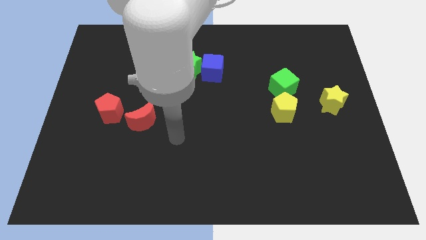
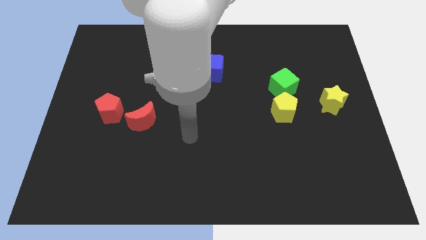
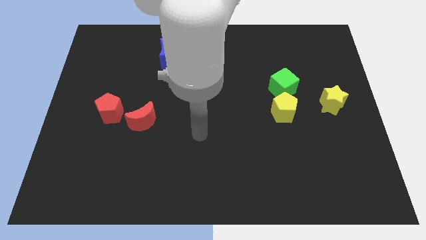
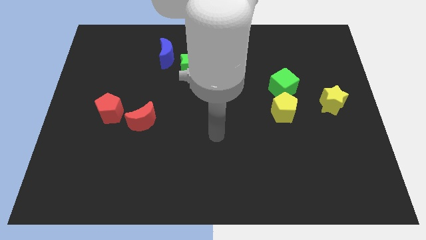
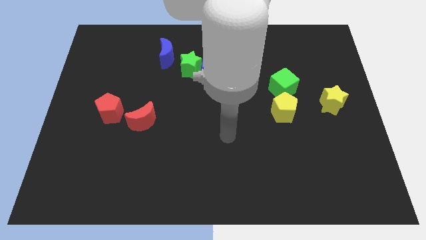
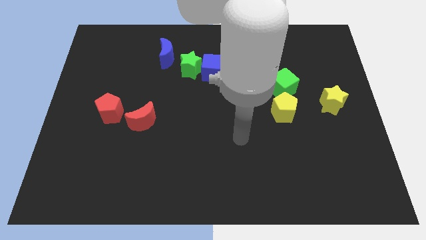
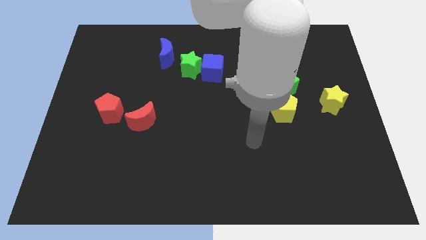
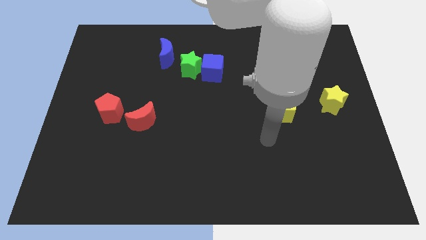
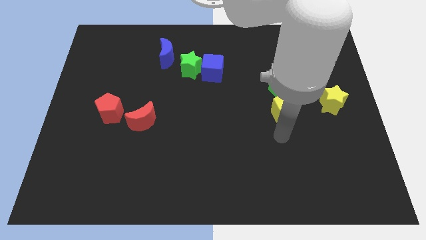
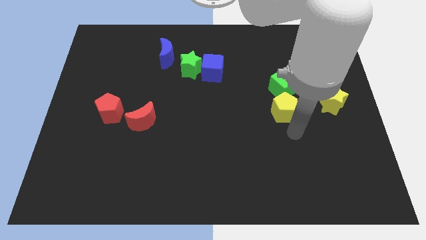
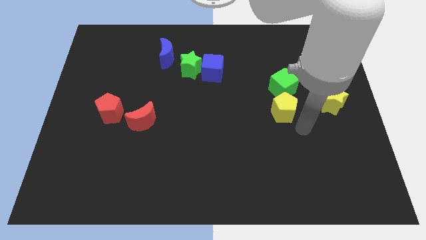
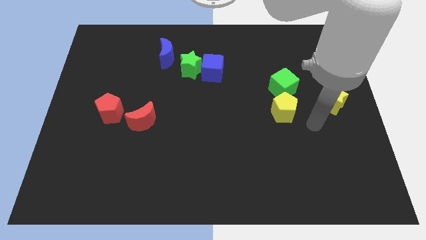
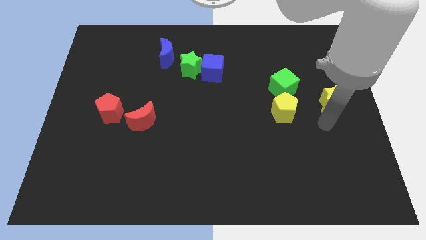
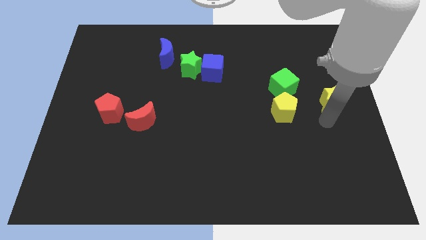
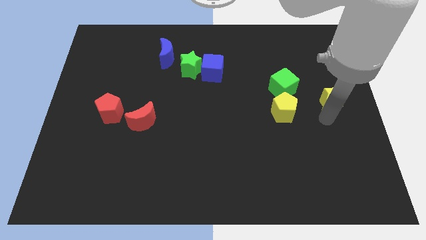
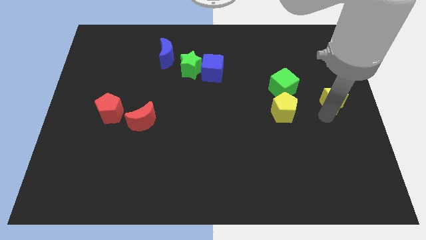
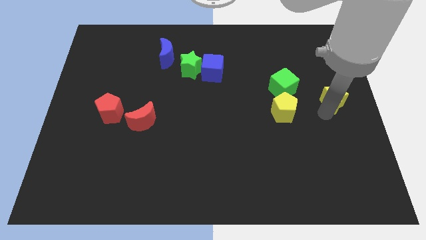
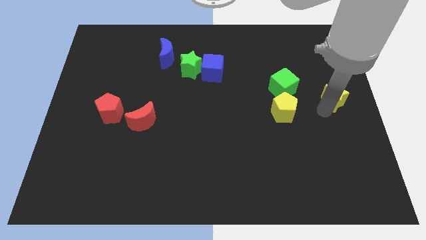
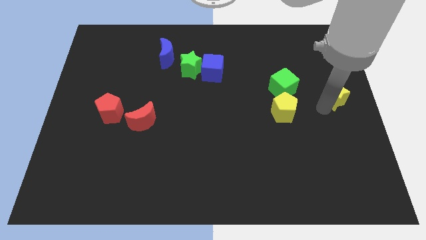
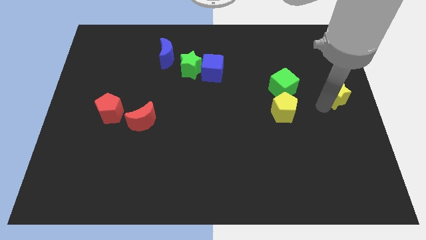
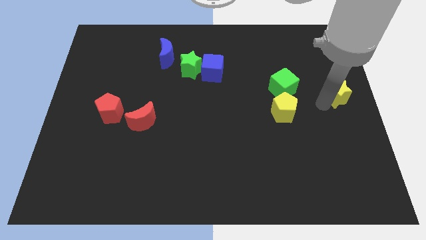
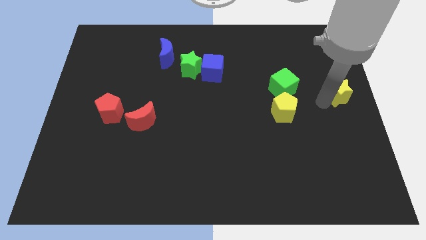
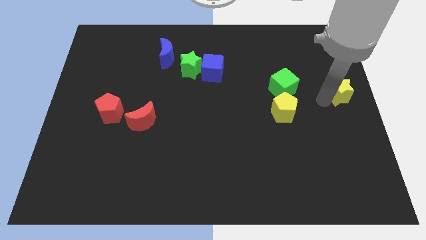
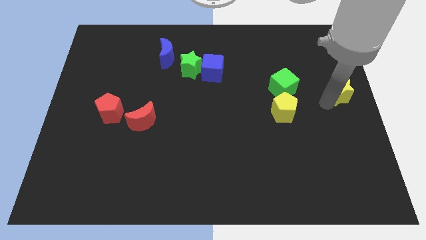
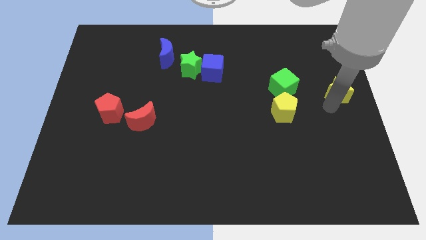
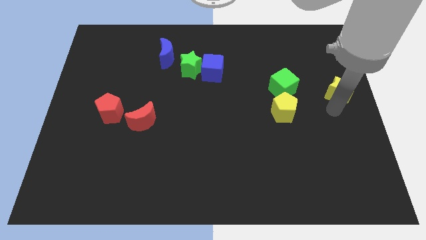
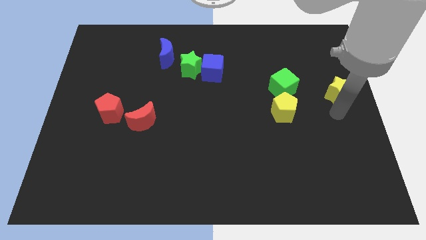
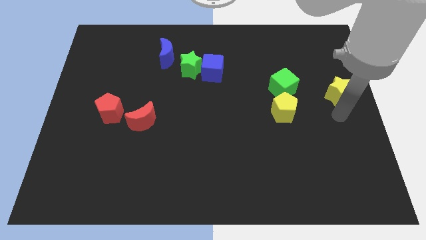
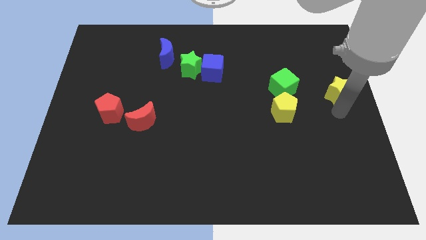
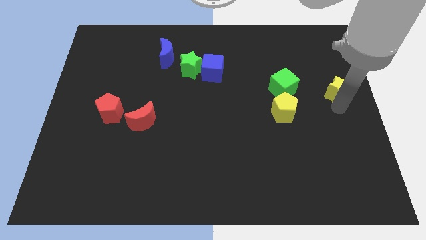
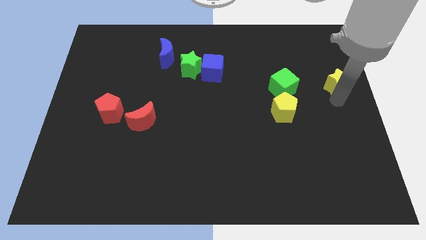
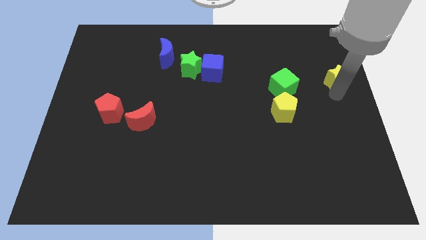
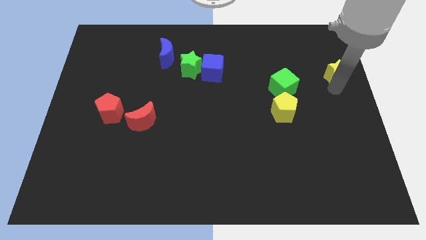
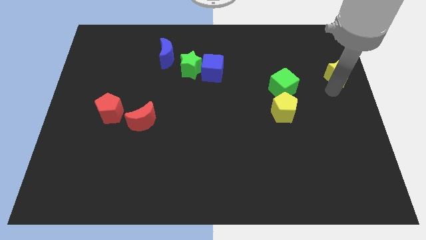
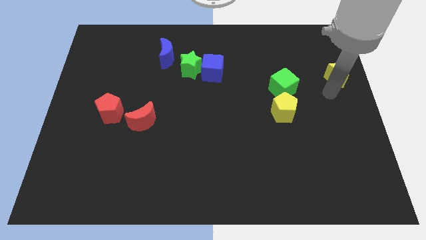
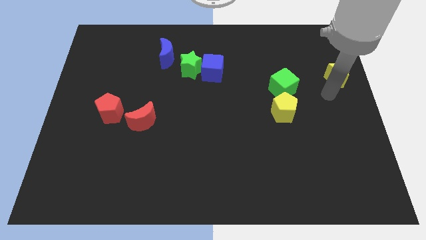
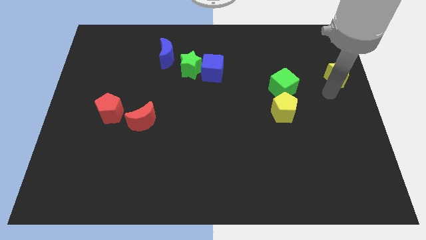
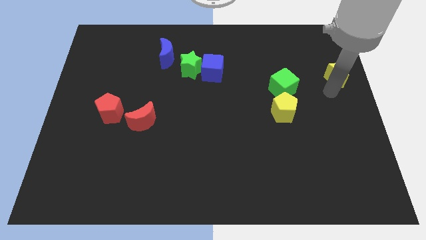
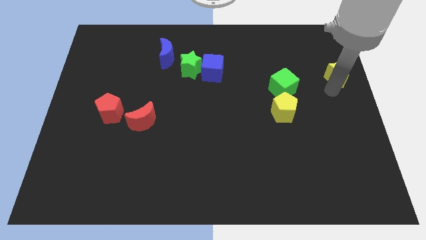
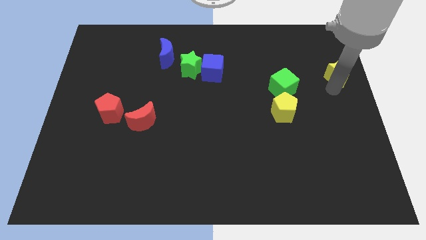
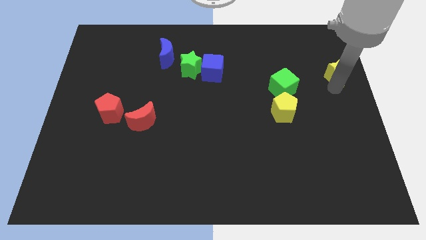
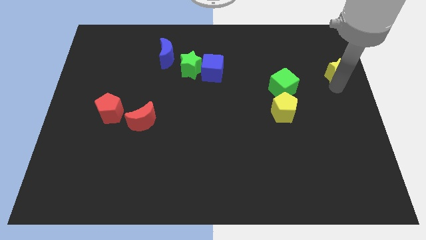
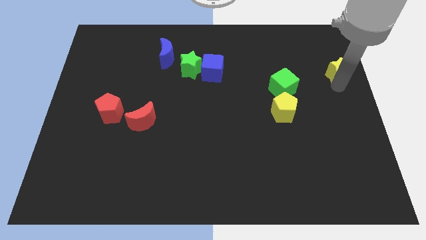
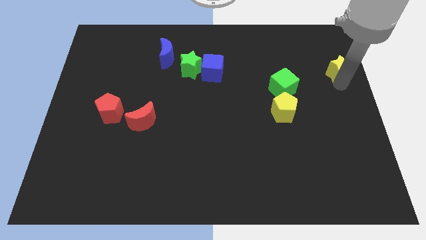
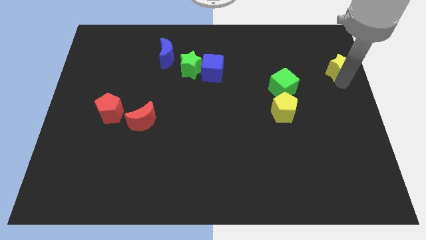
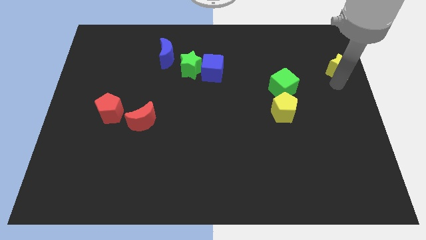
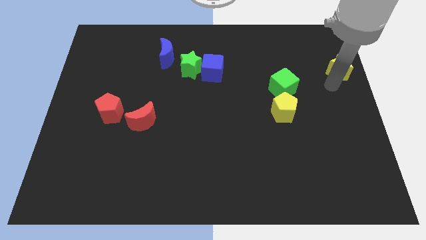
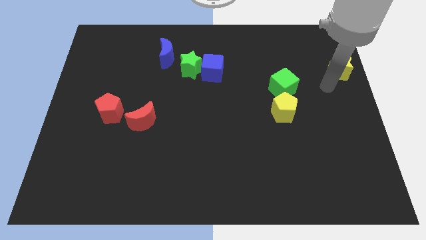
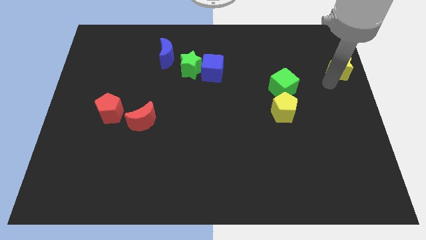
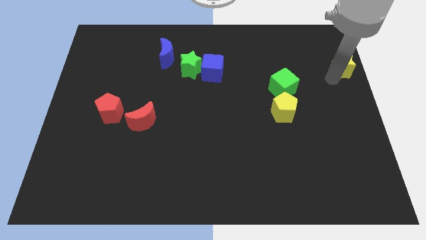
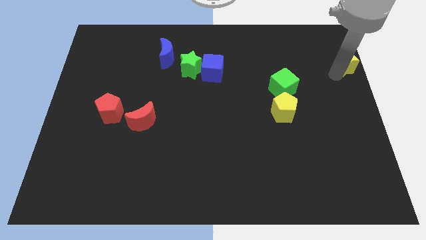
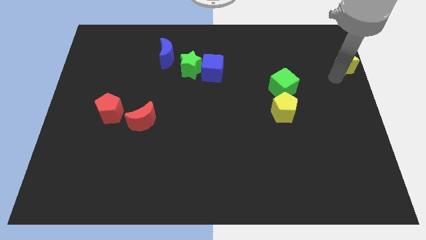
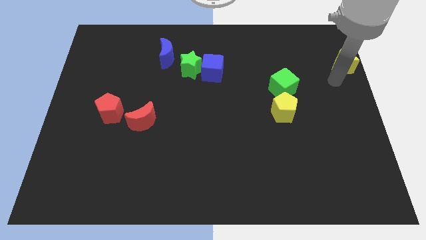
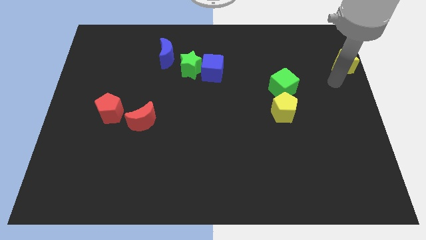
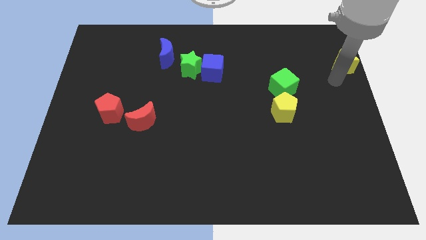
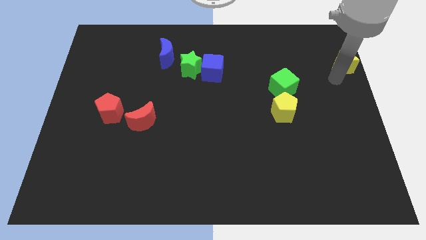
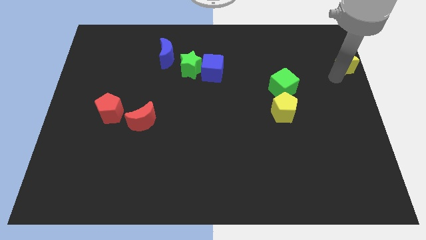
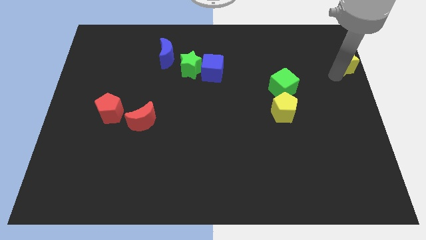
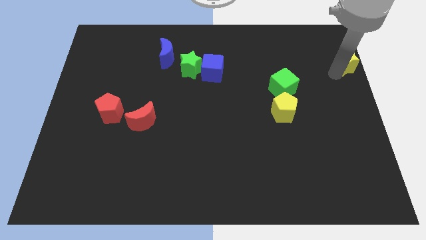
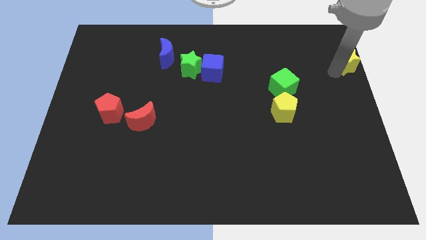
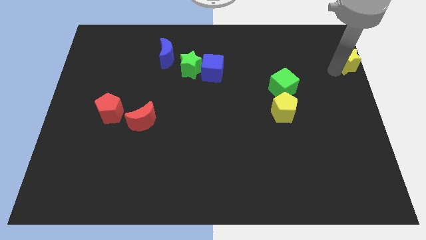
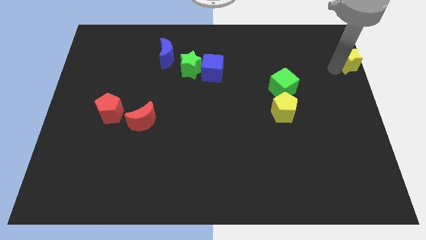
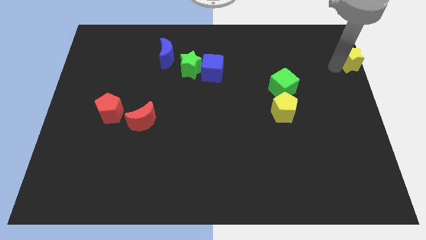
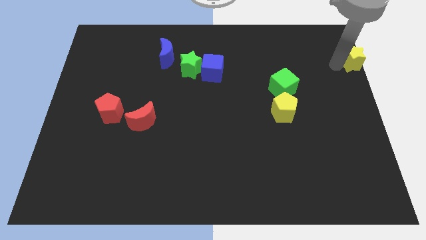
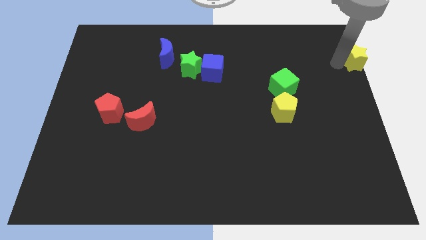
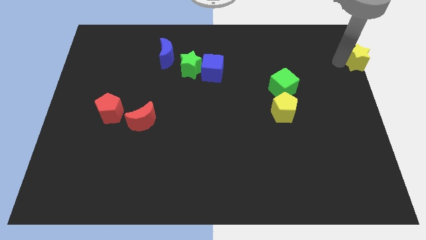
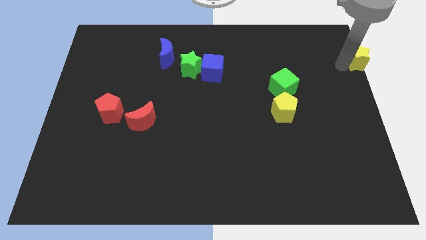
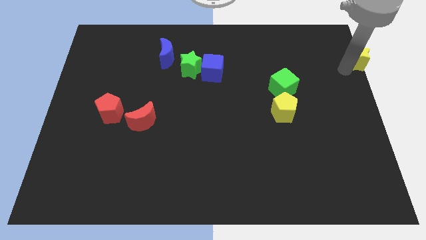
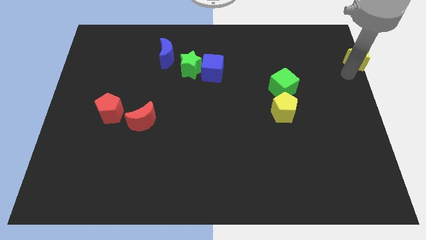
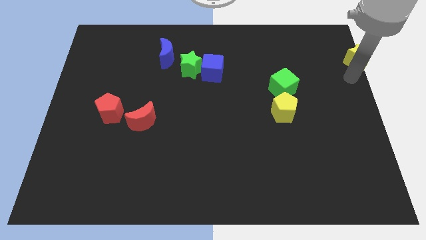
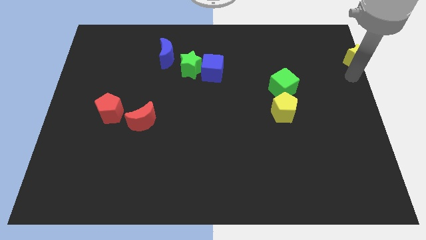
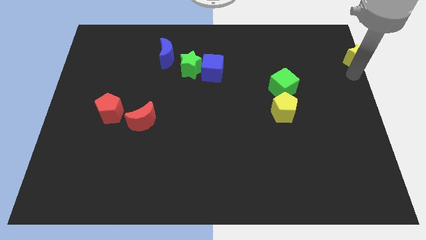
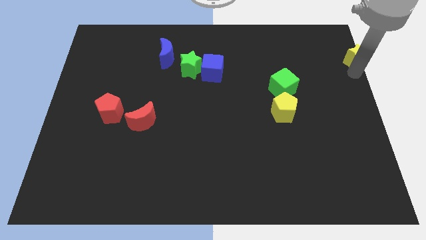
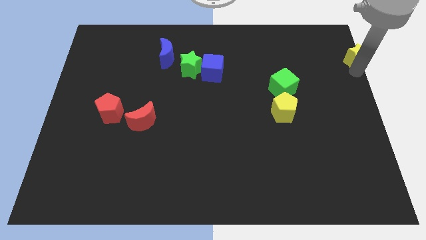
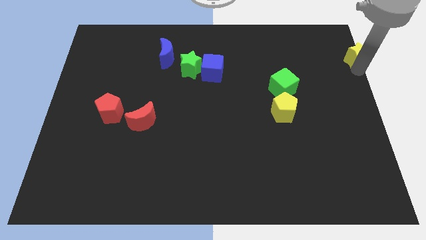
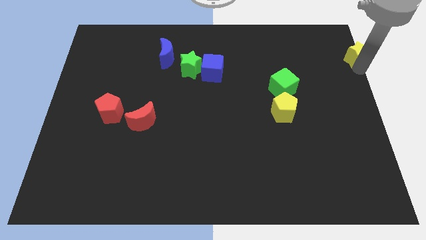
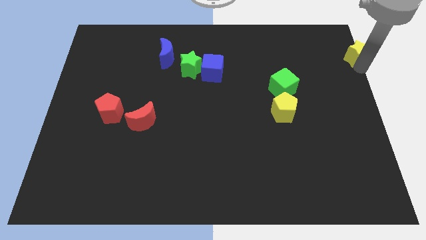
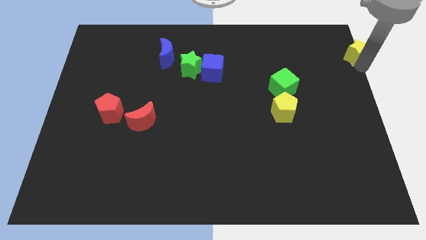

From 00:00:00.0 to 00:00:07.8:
move the yellow star to the top right
